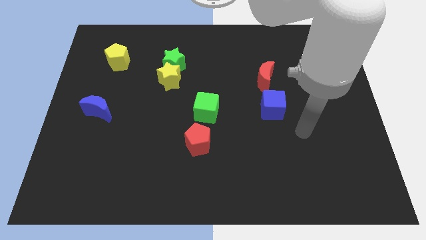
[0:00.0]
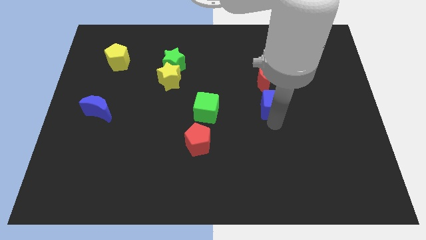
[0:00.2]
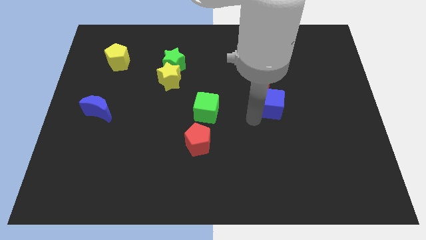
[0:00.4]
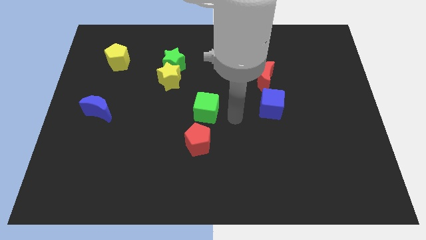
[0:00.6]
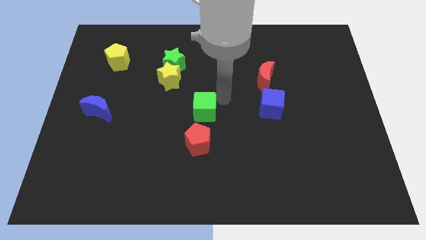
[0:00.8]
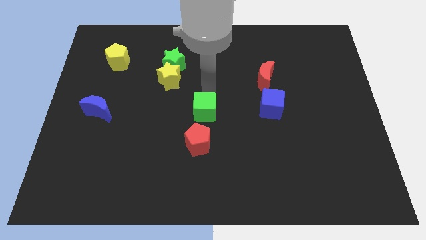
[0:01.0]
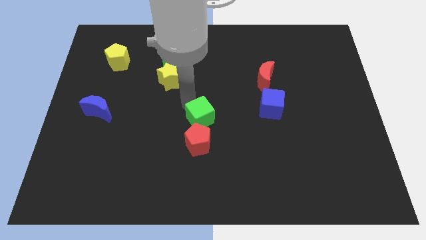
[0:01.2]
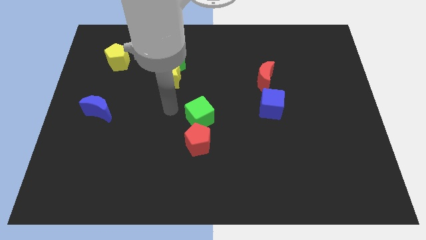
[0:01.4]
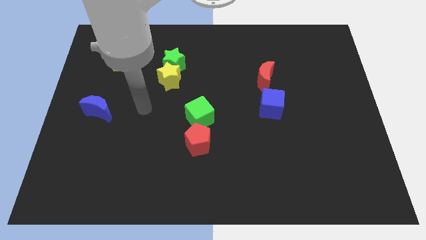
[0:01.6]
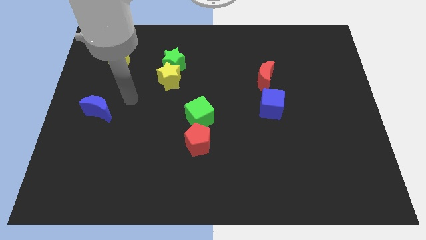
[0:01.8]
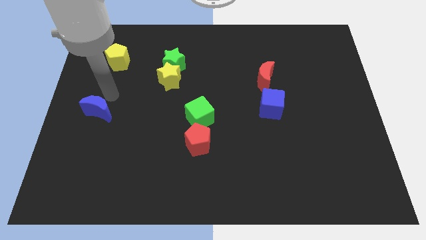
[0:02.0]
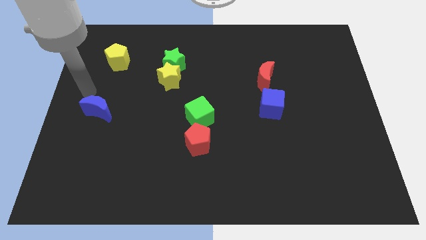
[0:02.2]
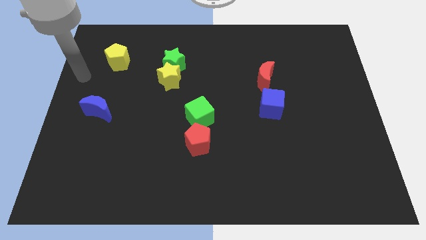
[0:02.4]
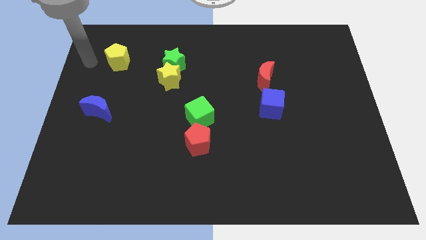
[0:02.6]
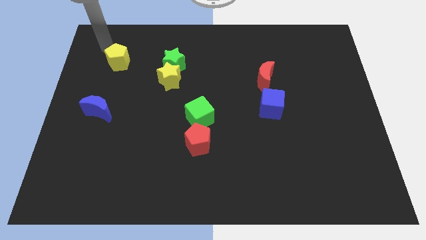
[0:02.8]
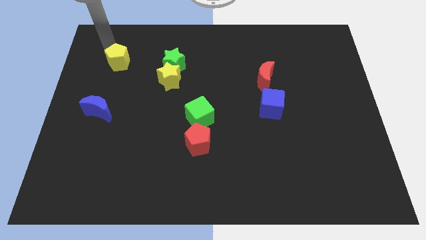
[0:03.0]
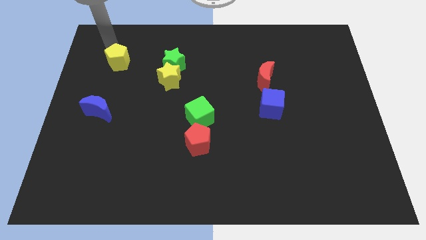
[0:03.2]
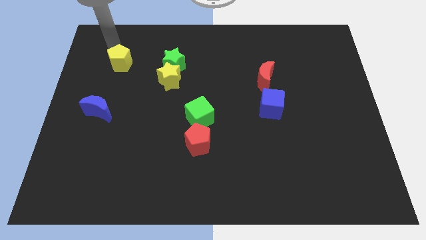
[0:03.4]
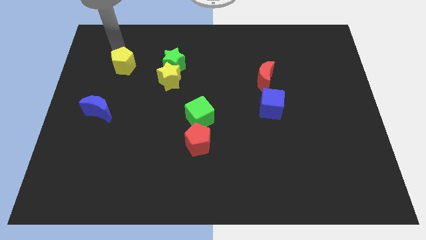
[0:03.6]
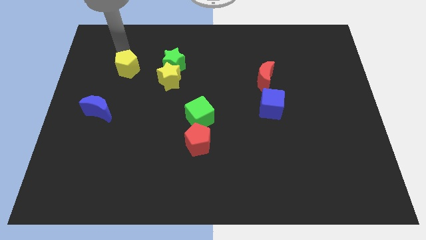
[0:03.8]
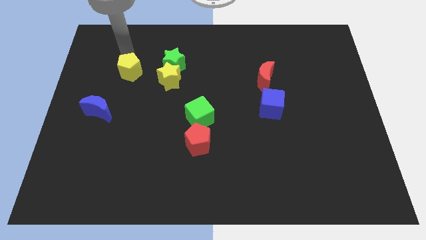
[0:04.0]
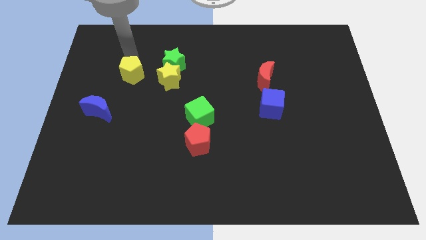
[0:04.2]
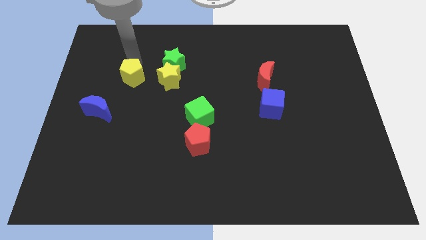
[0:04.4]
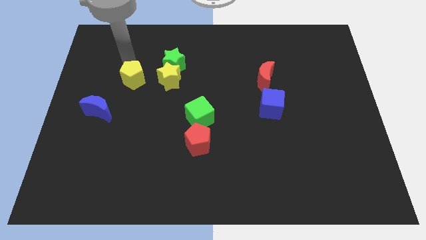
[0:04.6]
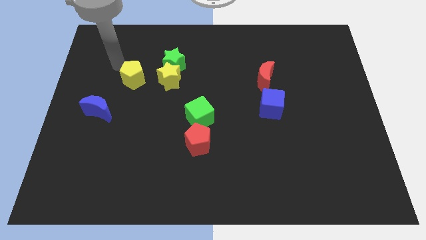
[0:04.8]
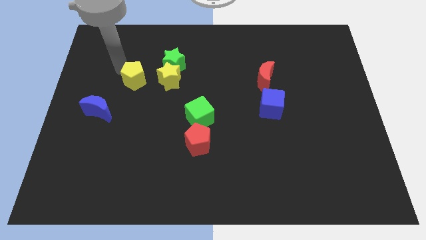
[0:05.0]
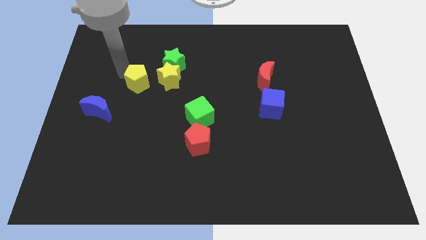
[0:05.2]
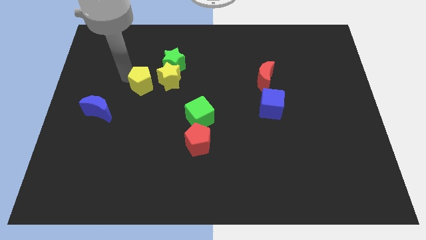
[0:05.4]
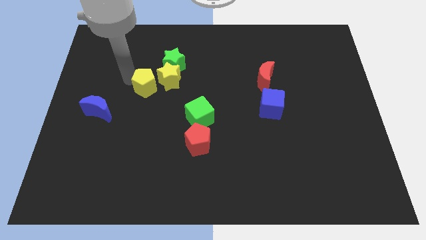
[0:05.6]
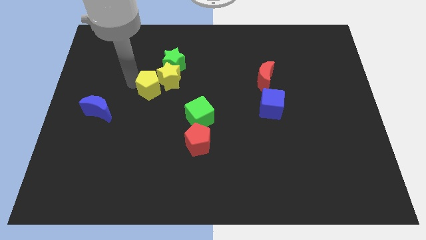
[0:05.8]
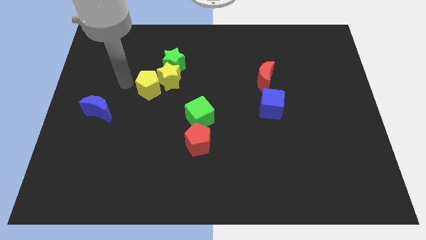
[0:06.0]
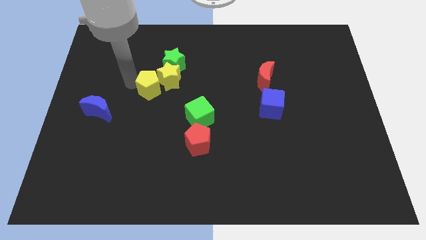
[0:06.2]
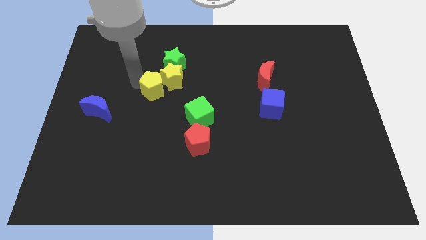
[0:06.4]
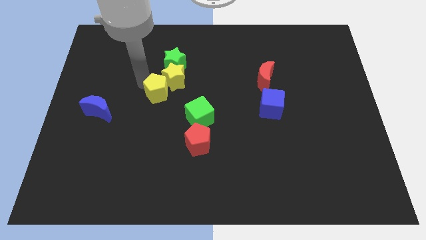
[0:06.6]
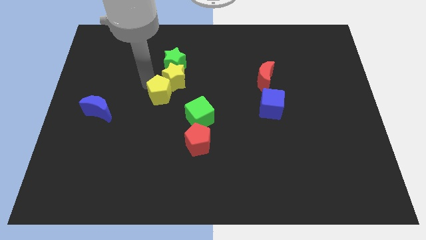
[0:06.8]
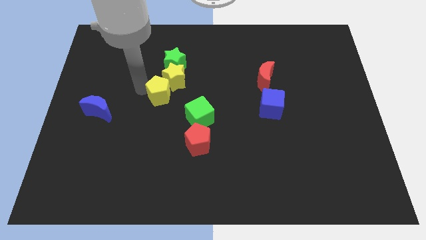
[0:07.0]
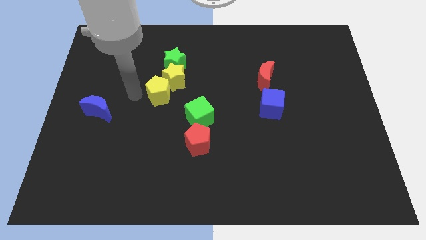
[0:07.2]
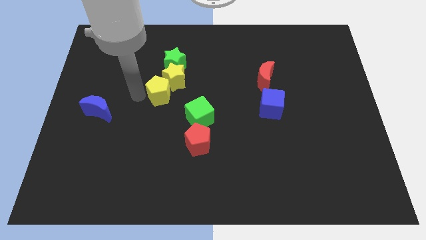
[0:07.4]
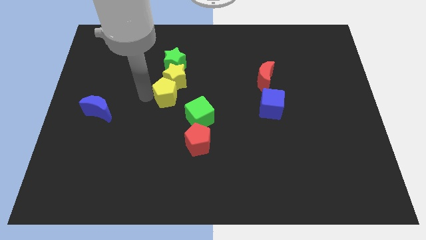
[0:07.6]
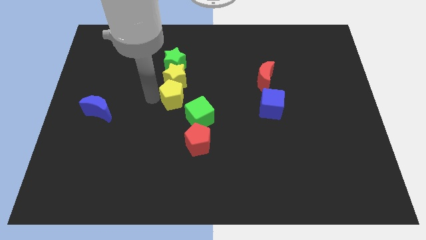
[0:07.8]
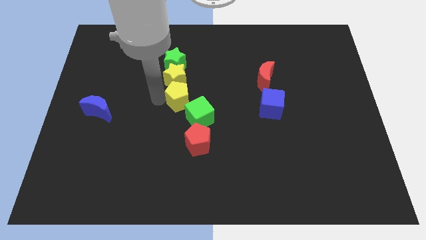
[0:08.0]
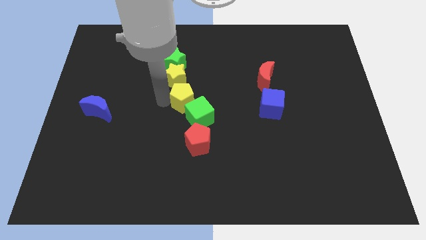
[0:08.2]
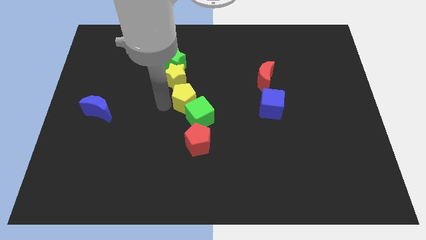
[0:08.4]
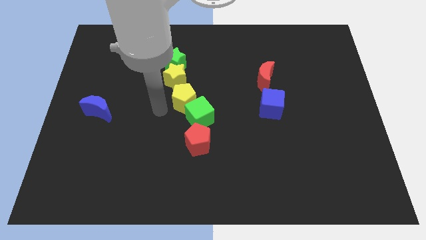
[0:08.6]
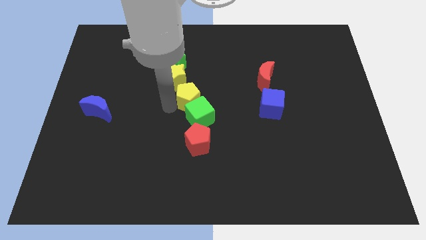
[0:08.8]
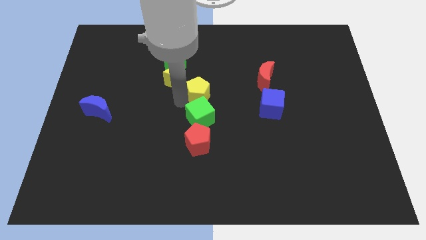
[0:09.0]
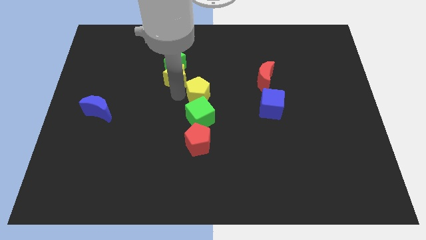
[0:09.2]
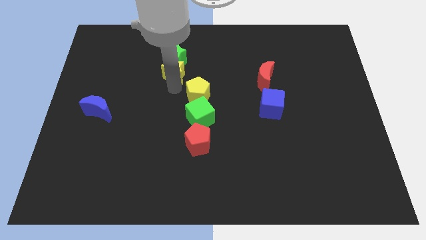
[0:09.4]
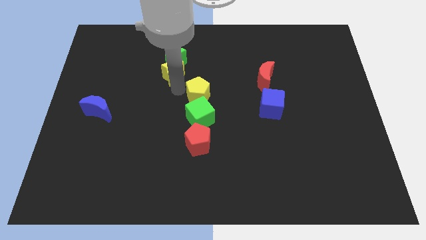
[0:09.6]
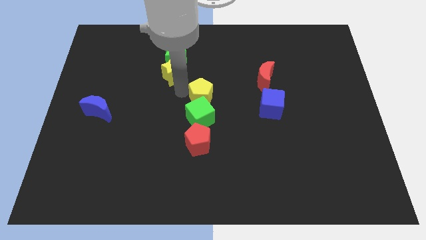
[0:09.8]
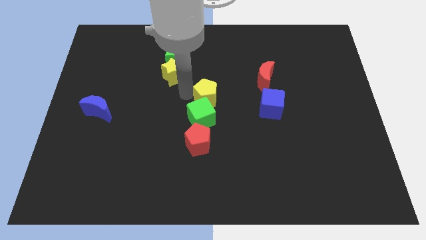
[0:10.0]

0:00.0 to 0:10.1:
push the yellow pentagon left of the blue cube

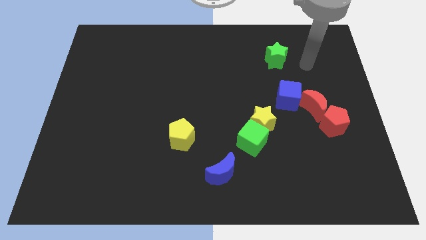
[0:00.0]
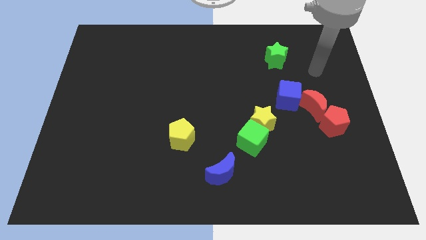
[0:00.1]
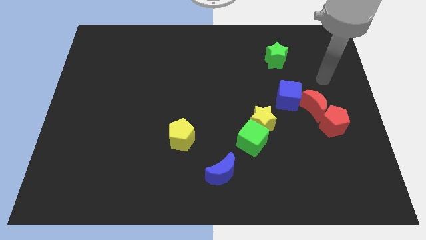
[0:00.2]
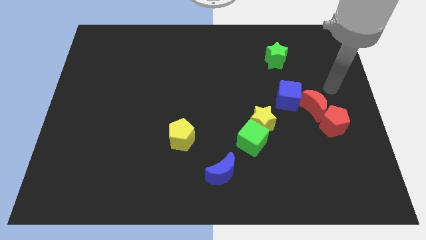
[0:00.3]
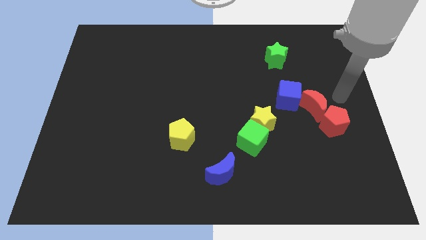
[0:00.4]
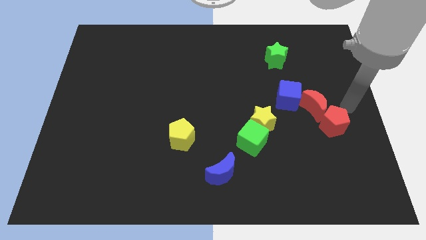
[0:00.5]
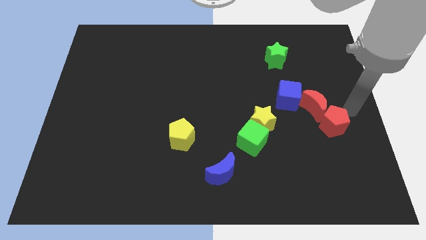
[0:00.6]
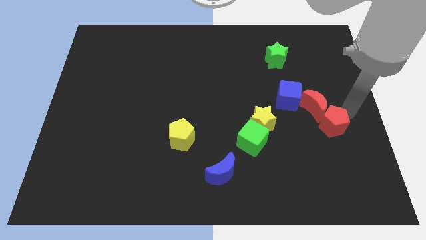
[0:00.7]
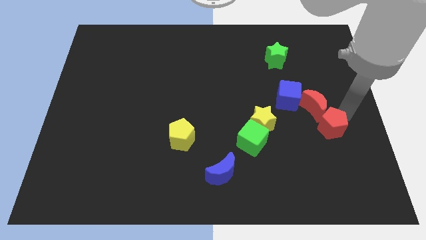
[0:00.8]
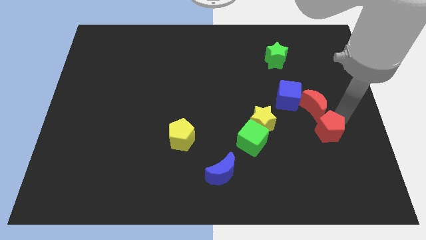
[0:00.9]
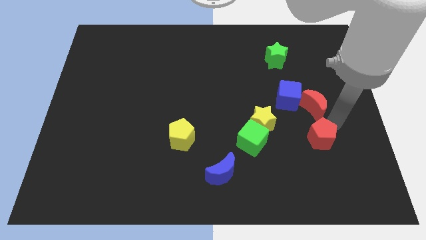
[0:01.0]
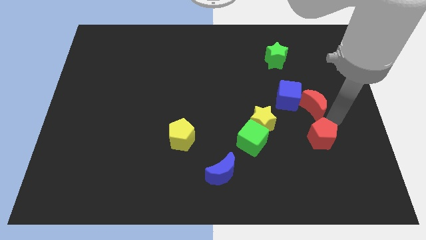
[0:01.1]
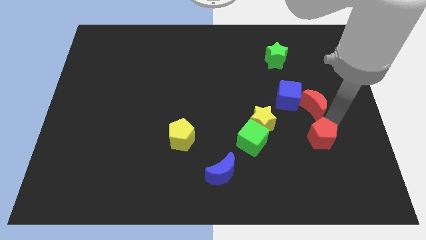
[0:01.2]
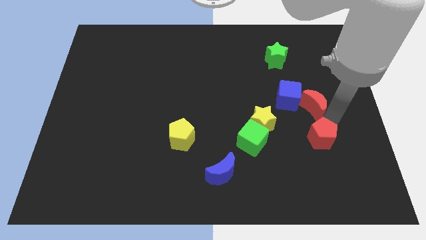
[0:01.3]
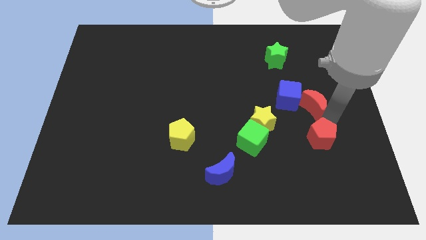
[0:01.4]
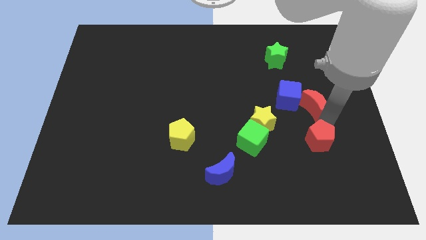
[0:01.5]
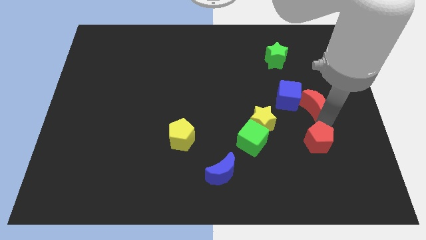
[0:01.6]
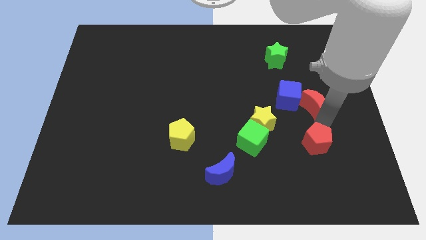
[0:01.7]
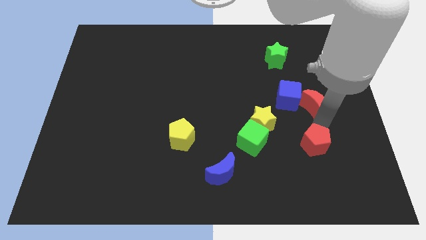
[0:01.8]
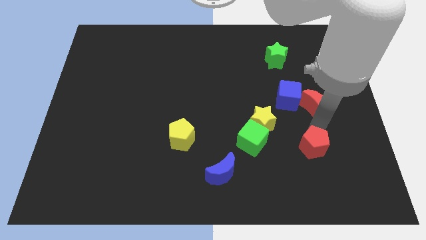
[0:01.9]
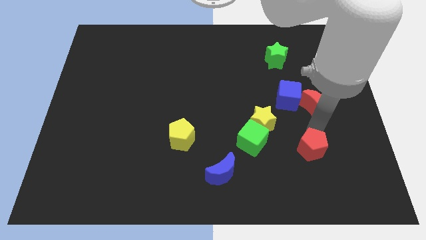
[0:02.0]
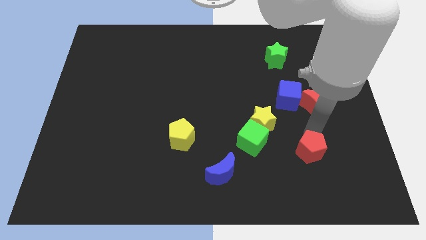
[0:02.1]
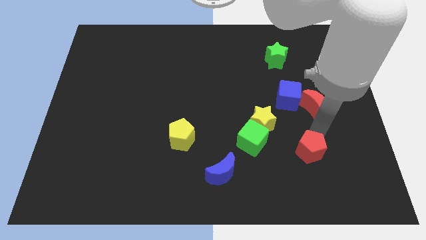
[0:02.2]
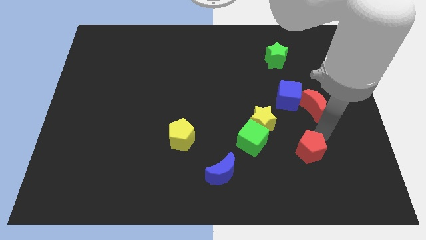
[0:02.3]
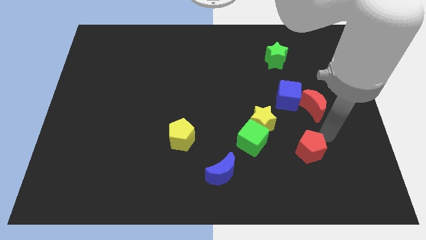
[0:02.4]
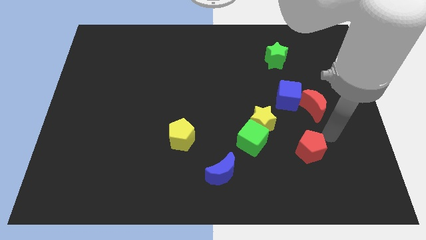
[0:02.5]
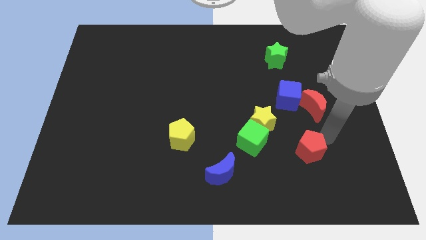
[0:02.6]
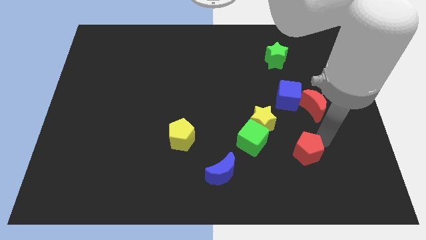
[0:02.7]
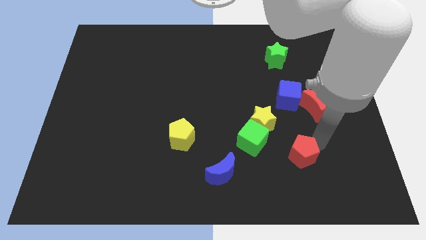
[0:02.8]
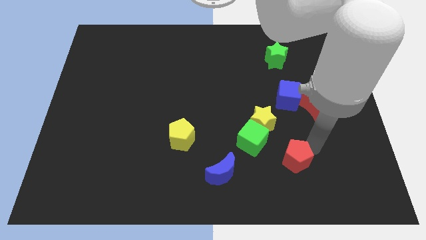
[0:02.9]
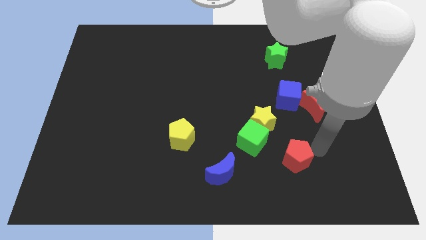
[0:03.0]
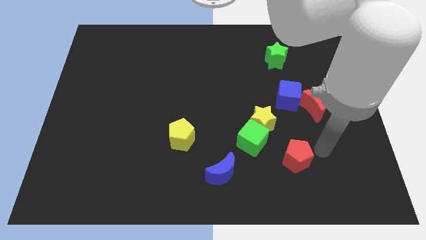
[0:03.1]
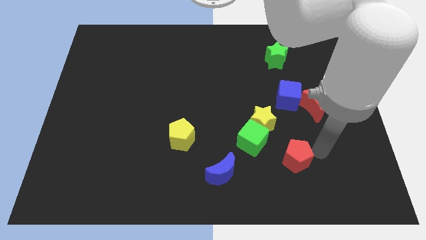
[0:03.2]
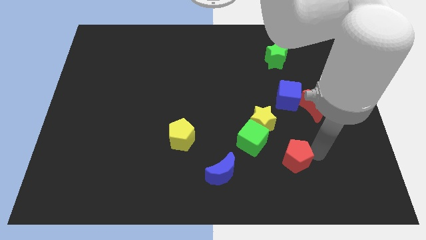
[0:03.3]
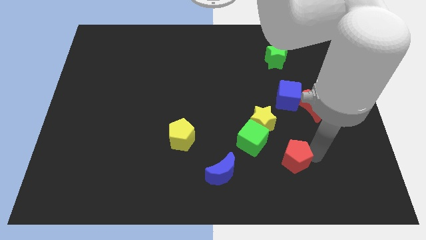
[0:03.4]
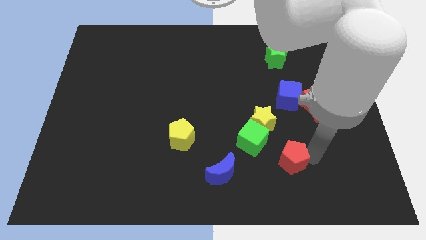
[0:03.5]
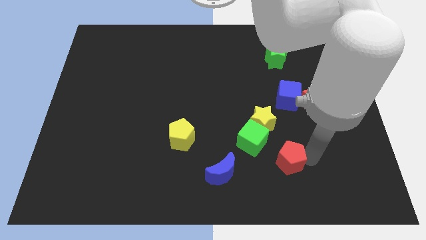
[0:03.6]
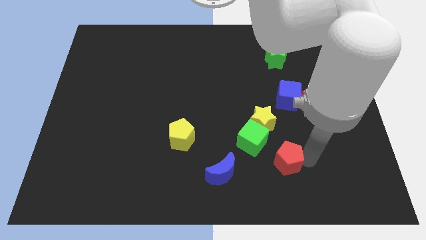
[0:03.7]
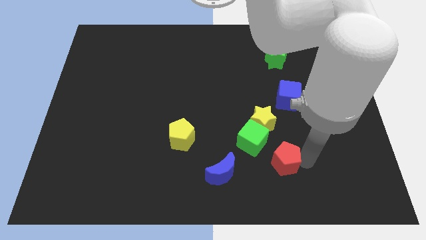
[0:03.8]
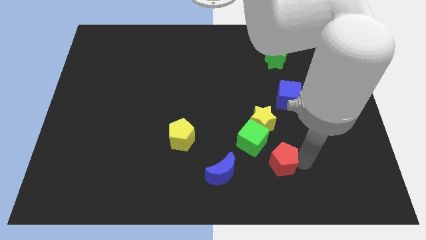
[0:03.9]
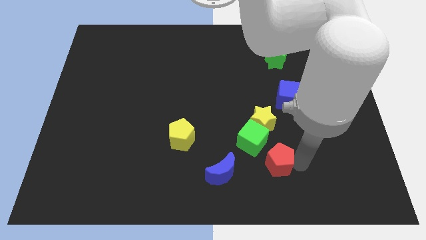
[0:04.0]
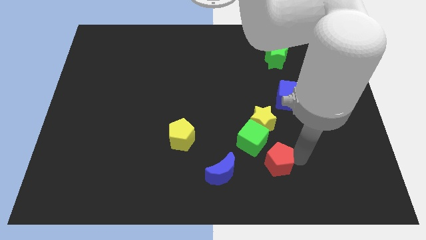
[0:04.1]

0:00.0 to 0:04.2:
move the red pentagon below the green cube
